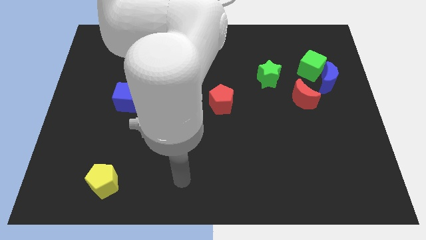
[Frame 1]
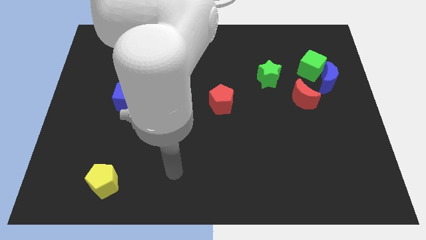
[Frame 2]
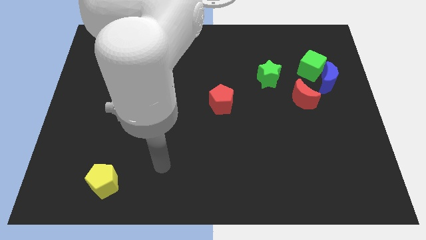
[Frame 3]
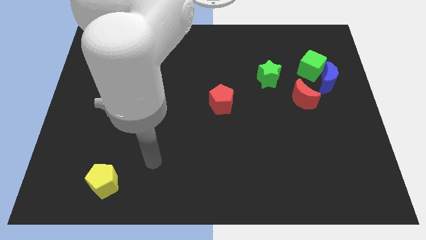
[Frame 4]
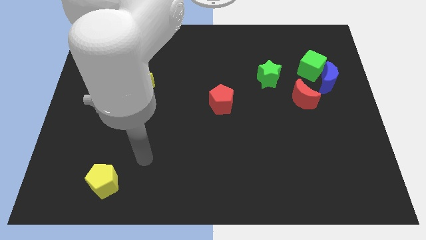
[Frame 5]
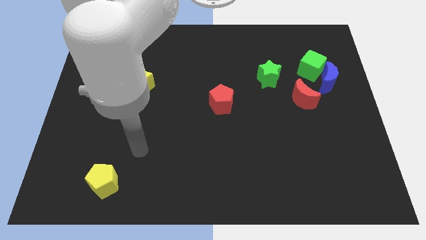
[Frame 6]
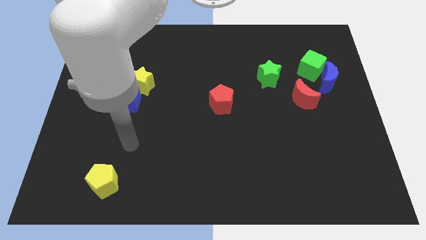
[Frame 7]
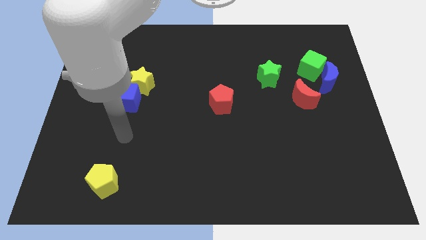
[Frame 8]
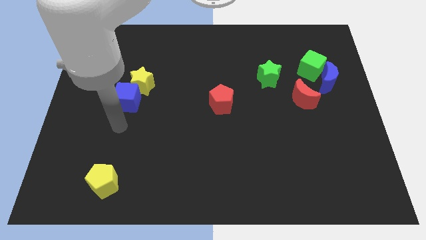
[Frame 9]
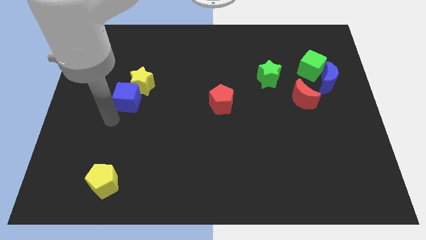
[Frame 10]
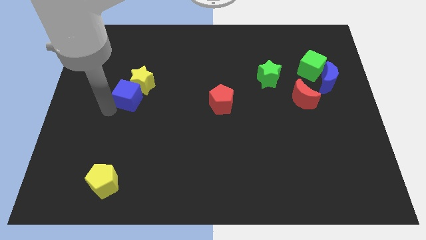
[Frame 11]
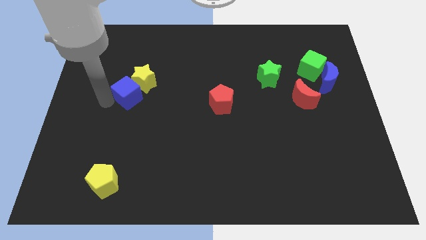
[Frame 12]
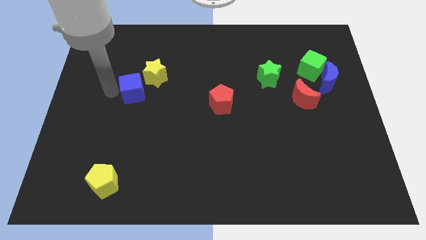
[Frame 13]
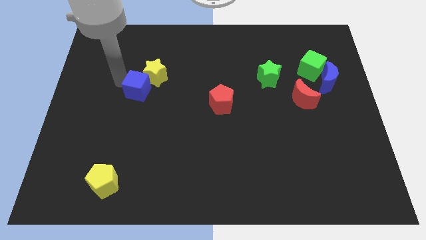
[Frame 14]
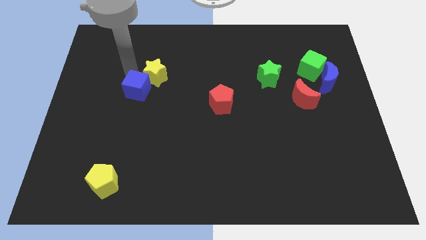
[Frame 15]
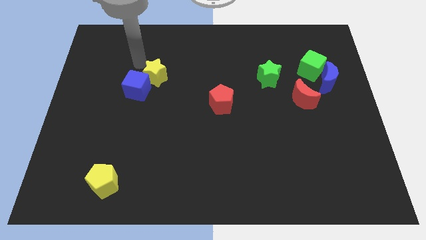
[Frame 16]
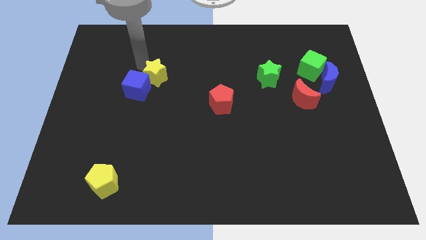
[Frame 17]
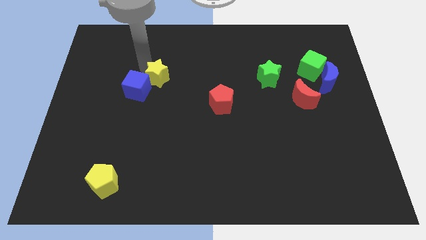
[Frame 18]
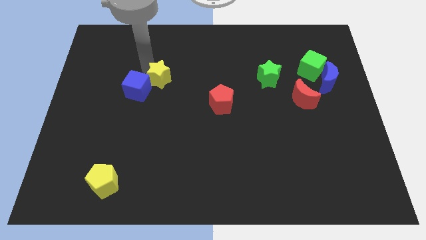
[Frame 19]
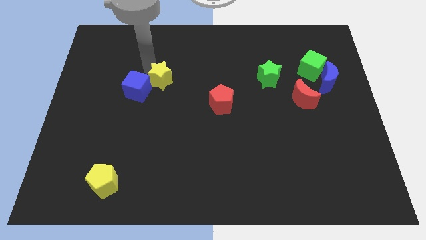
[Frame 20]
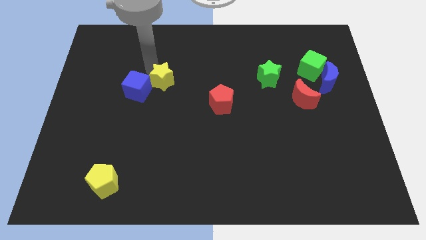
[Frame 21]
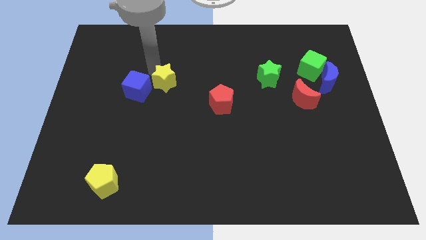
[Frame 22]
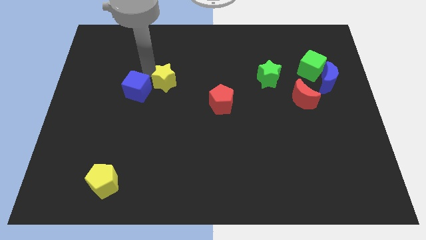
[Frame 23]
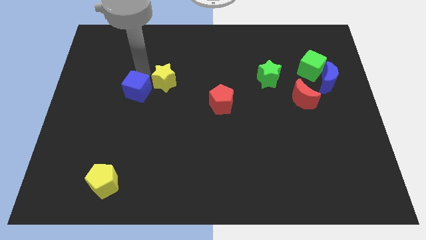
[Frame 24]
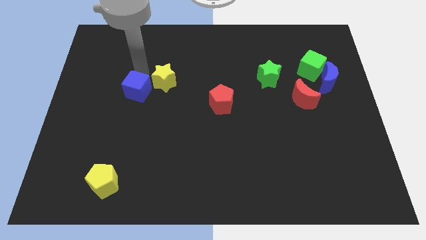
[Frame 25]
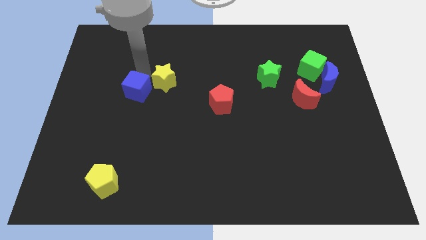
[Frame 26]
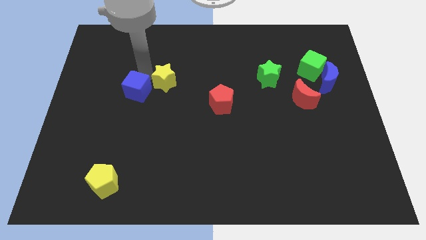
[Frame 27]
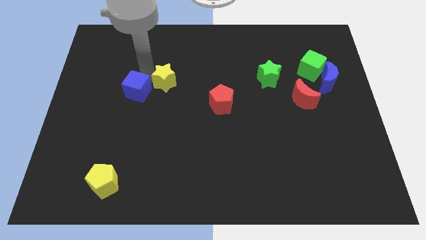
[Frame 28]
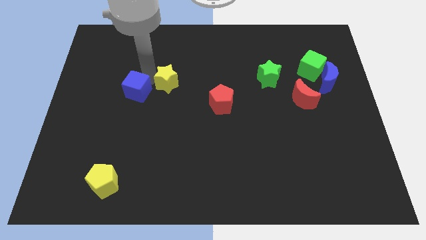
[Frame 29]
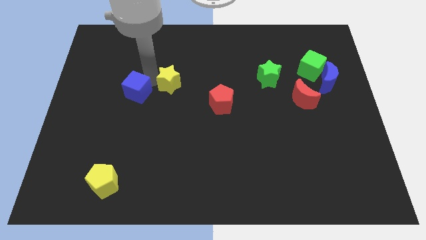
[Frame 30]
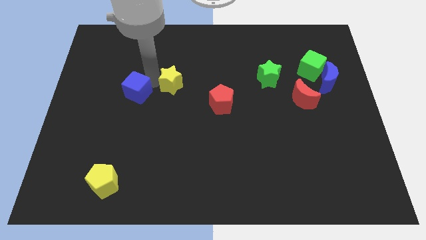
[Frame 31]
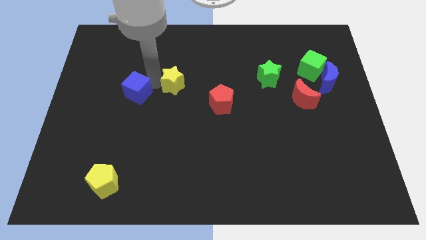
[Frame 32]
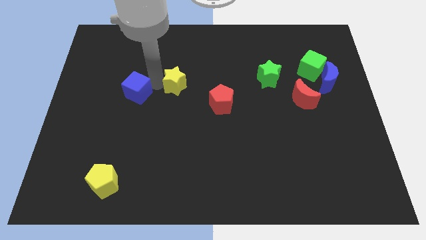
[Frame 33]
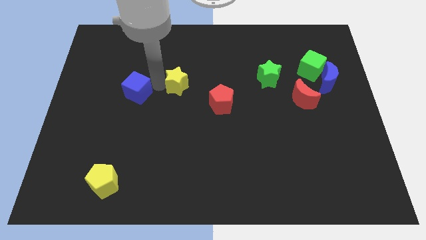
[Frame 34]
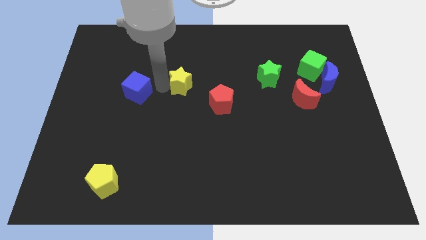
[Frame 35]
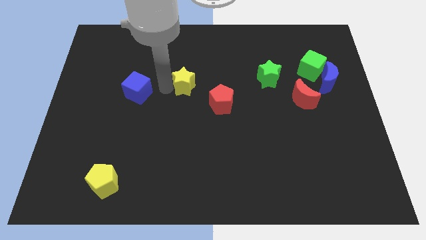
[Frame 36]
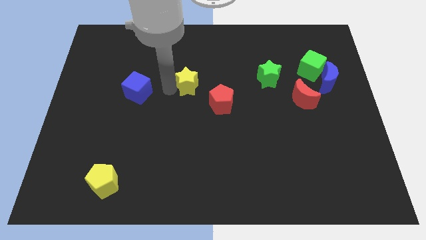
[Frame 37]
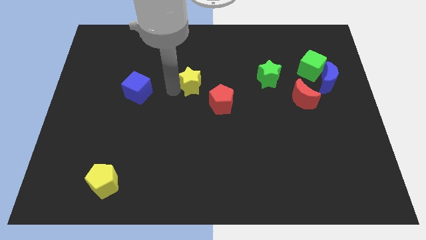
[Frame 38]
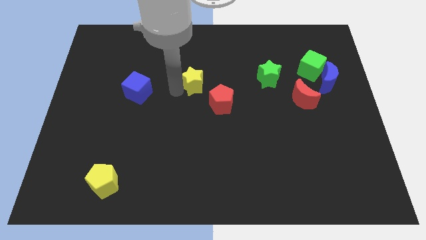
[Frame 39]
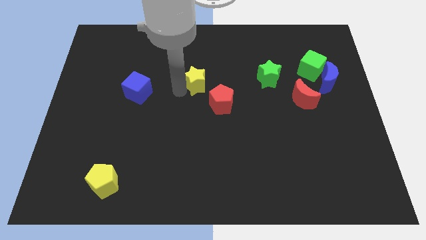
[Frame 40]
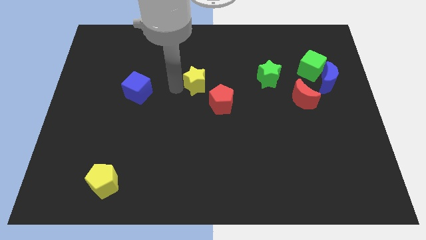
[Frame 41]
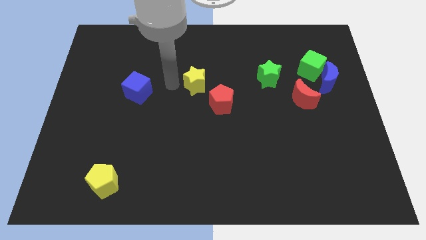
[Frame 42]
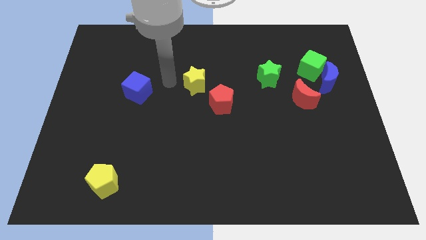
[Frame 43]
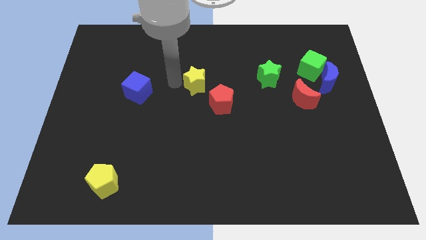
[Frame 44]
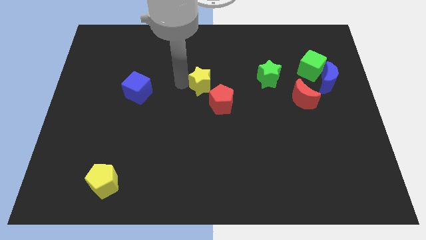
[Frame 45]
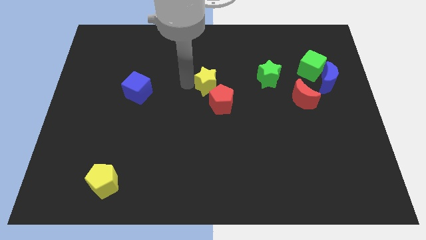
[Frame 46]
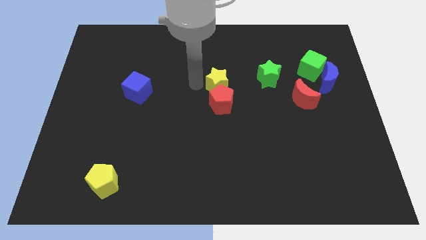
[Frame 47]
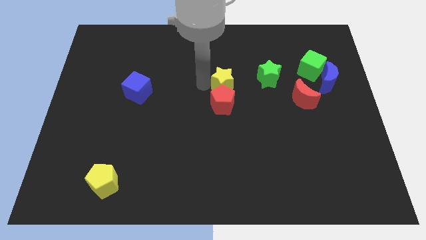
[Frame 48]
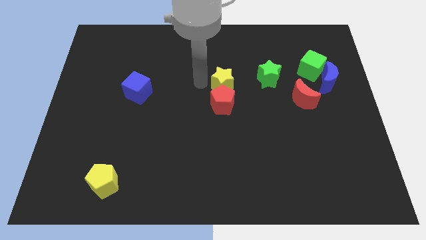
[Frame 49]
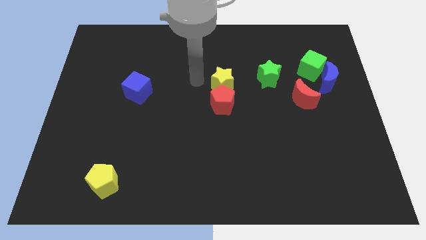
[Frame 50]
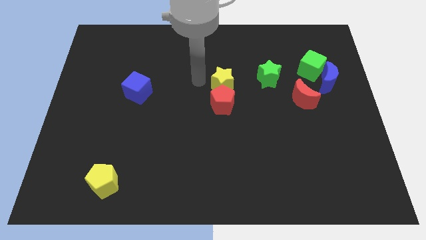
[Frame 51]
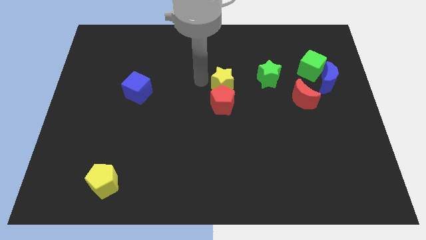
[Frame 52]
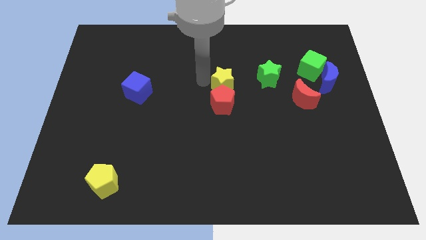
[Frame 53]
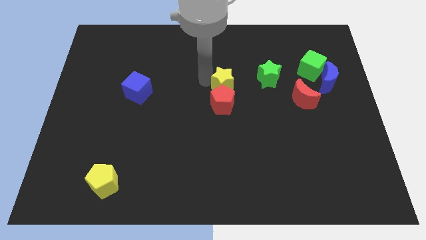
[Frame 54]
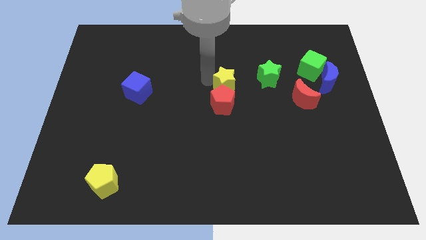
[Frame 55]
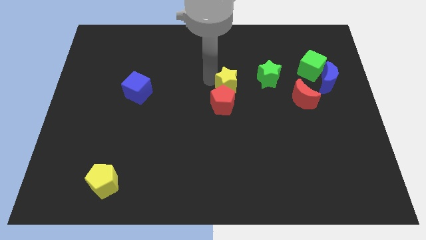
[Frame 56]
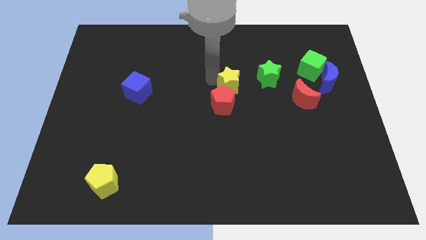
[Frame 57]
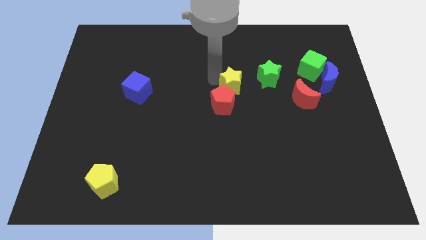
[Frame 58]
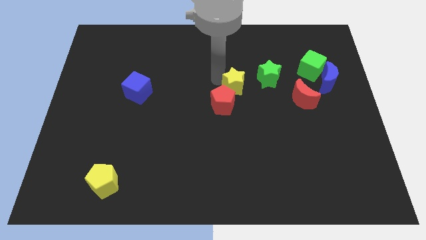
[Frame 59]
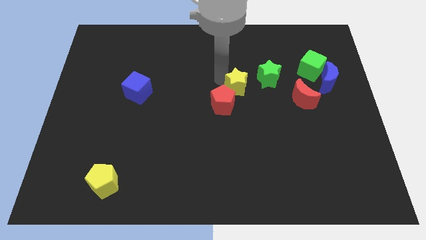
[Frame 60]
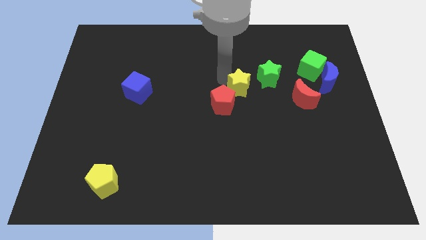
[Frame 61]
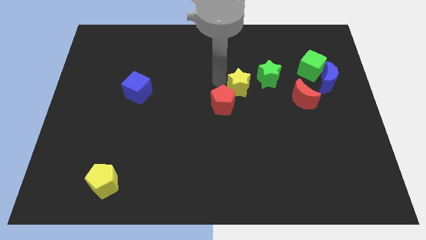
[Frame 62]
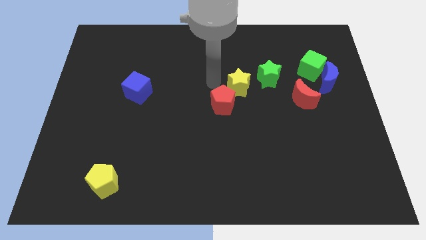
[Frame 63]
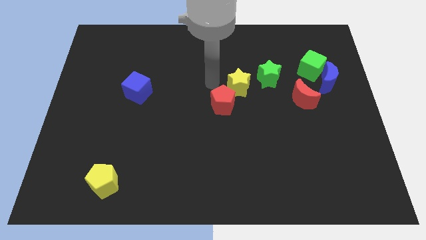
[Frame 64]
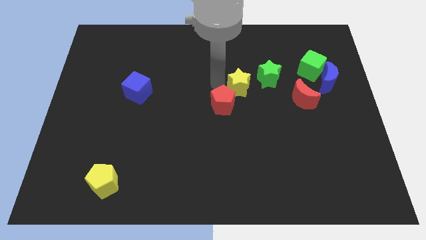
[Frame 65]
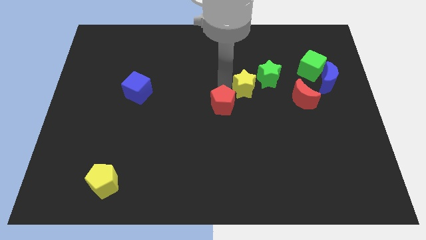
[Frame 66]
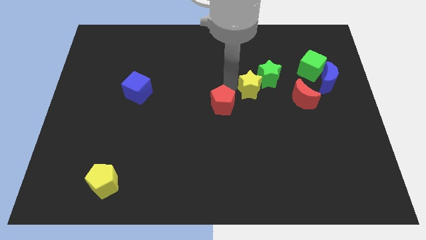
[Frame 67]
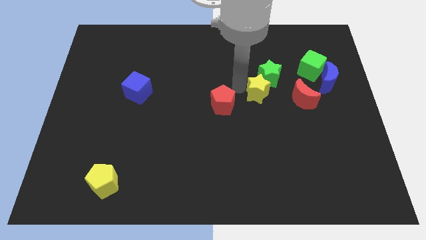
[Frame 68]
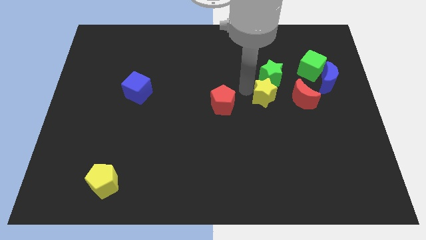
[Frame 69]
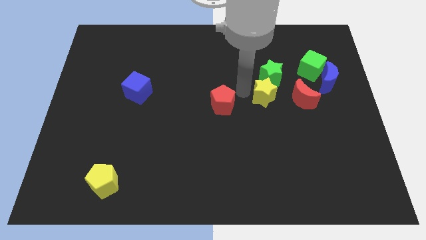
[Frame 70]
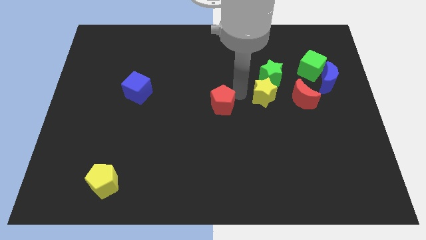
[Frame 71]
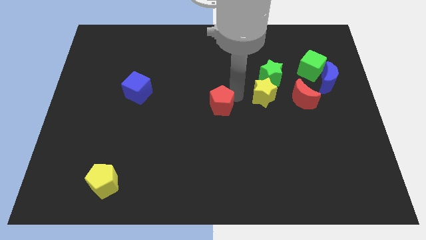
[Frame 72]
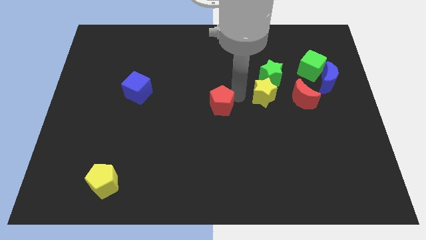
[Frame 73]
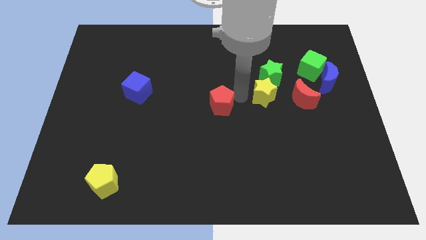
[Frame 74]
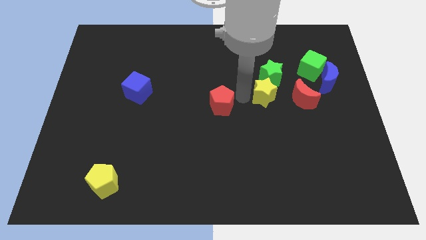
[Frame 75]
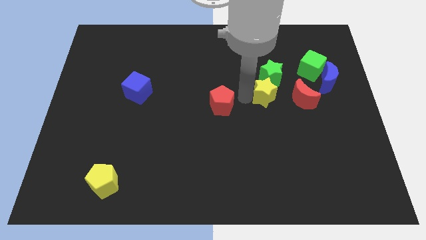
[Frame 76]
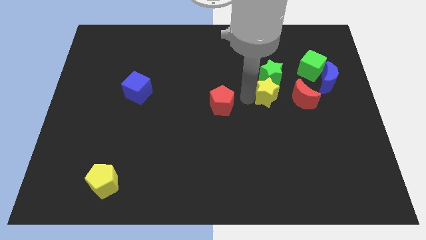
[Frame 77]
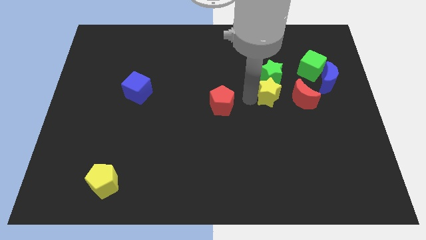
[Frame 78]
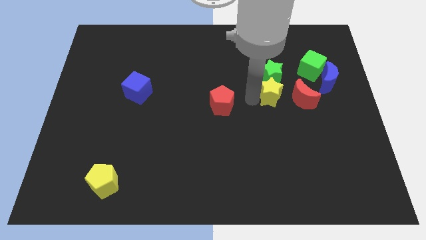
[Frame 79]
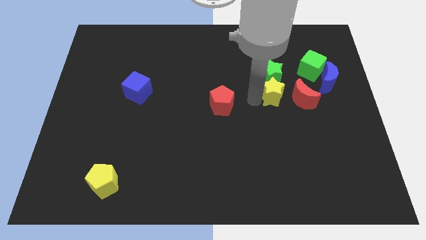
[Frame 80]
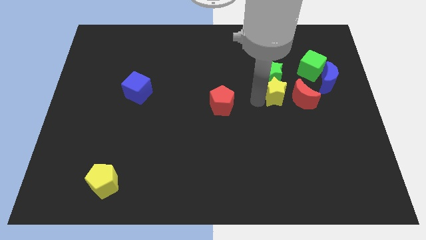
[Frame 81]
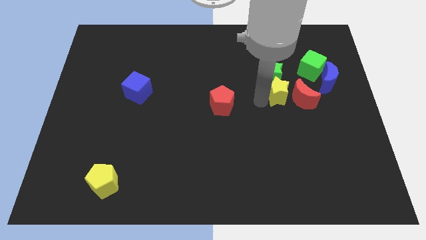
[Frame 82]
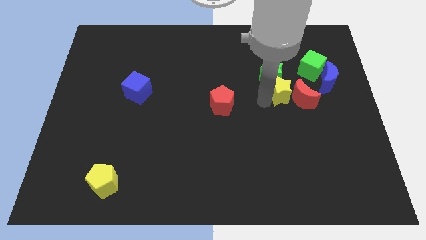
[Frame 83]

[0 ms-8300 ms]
move the yellow star to the red moon
